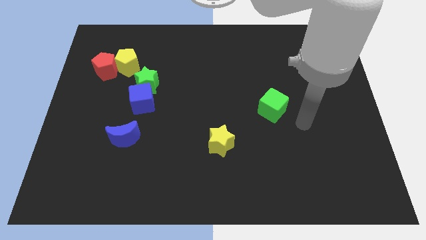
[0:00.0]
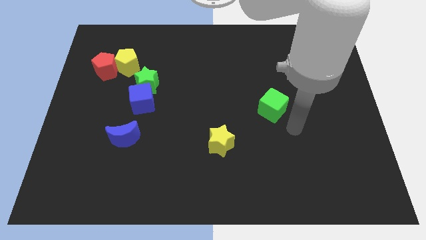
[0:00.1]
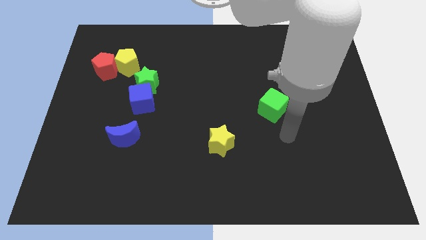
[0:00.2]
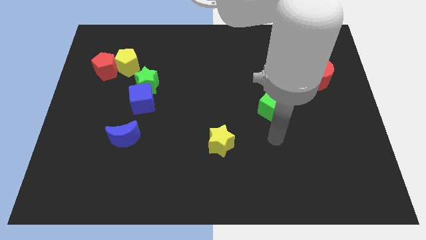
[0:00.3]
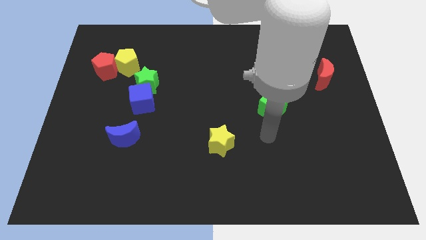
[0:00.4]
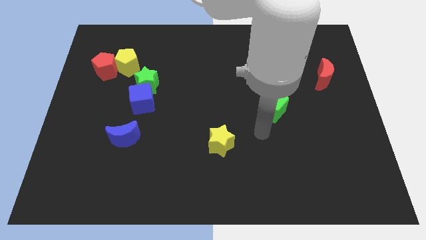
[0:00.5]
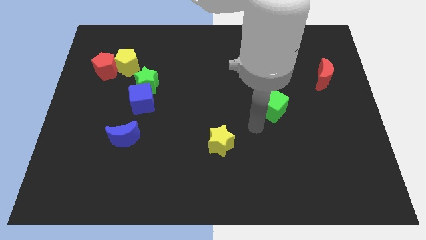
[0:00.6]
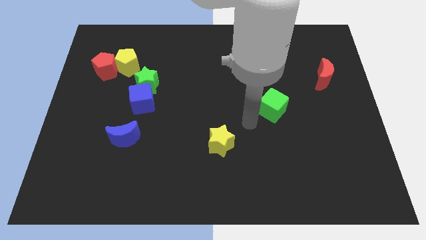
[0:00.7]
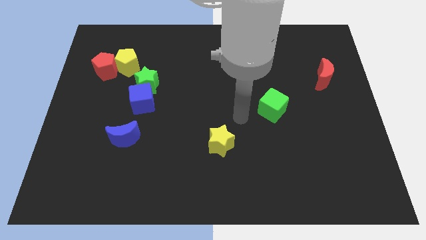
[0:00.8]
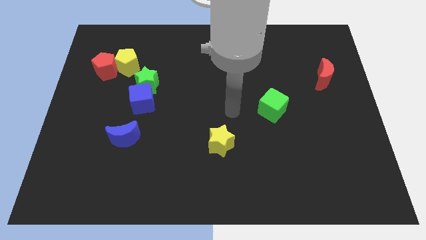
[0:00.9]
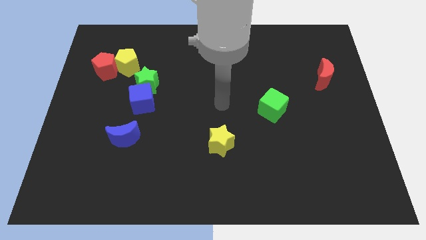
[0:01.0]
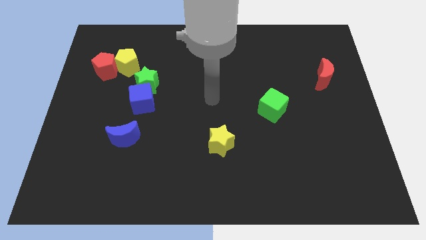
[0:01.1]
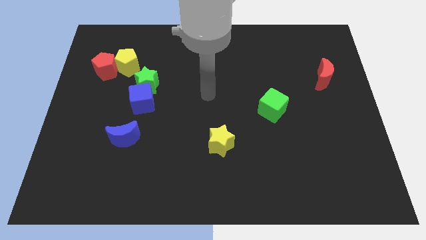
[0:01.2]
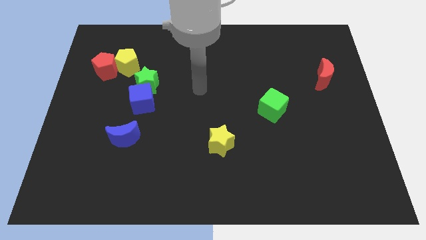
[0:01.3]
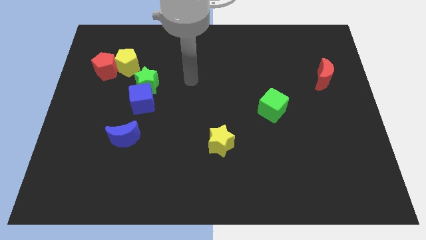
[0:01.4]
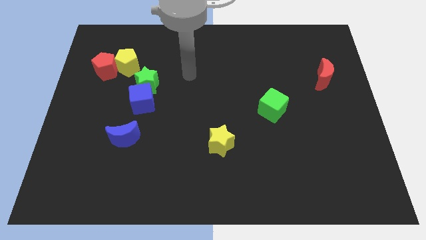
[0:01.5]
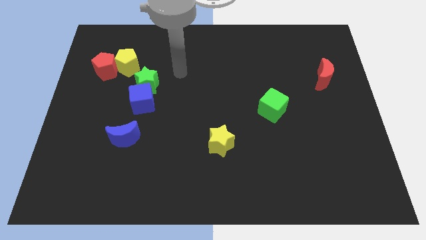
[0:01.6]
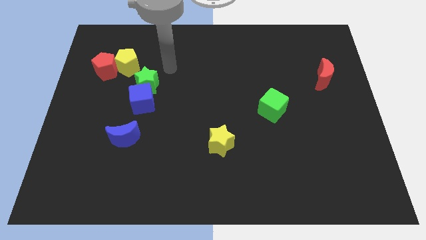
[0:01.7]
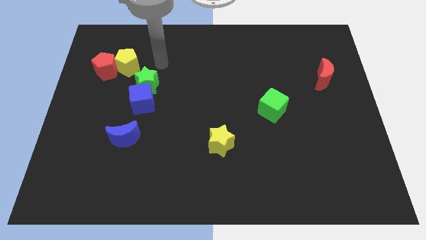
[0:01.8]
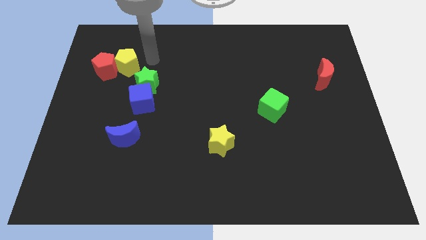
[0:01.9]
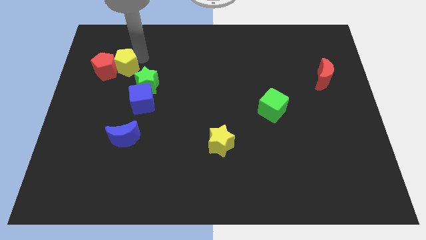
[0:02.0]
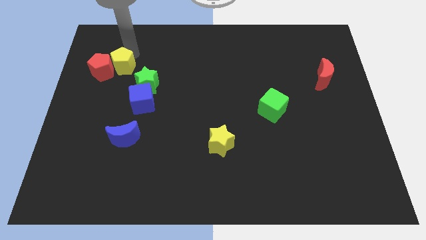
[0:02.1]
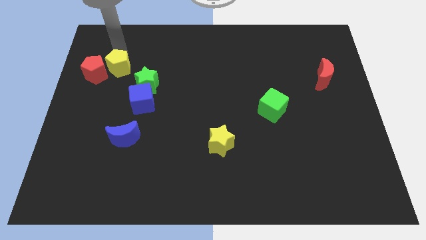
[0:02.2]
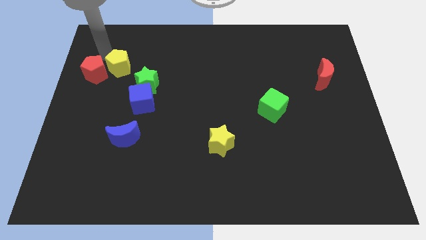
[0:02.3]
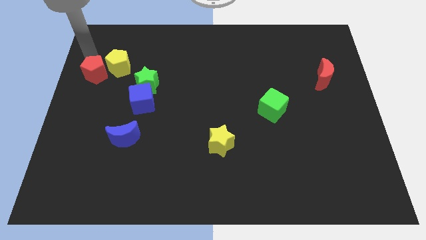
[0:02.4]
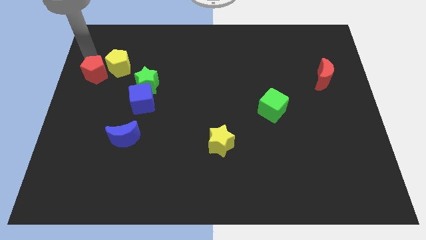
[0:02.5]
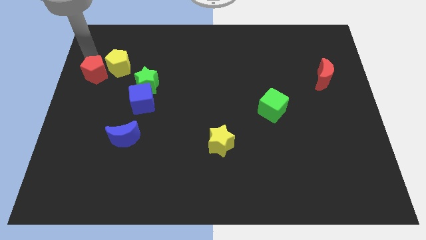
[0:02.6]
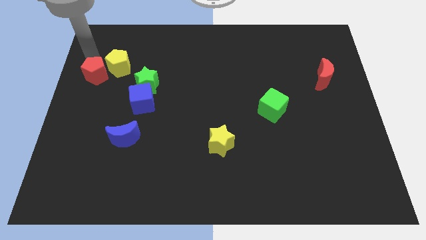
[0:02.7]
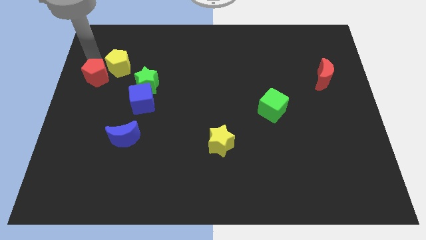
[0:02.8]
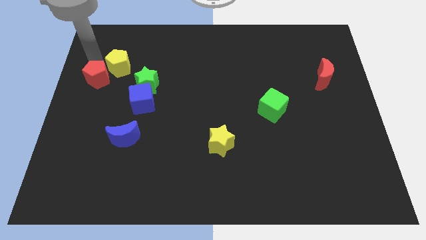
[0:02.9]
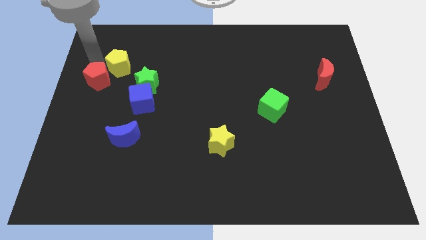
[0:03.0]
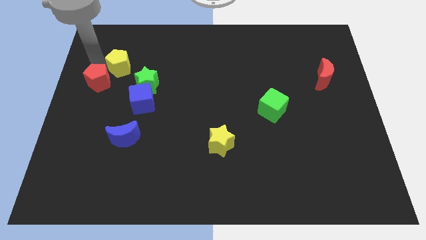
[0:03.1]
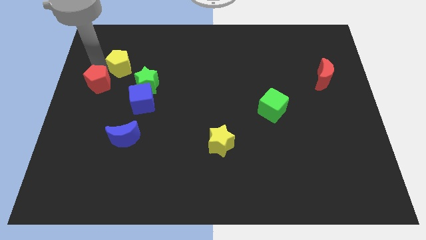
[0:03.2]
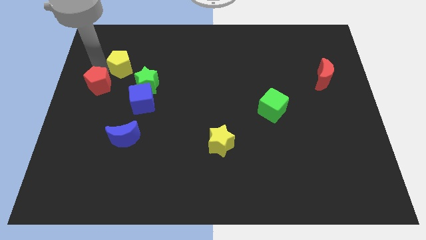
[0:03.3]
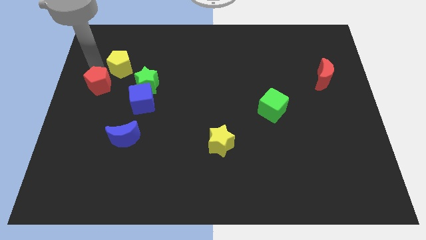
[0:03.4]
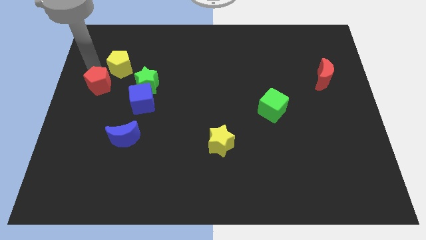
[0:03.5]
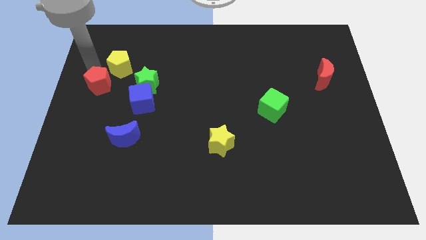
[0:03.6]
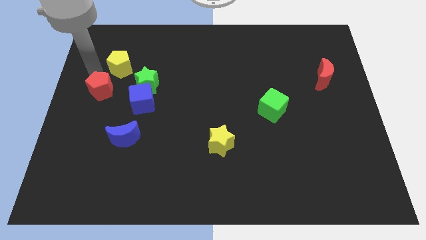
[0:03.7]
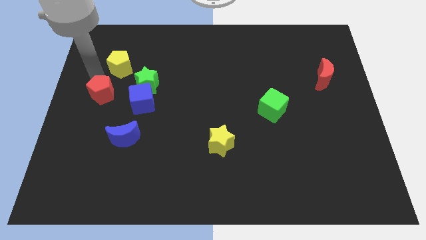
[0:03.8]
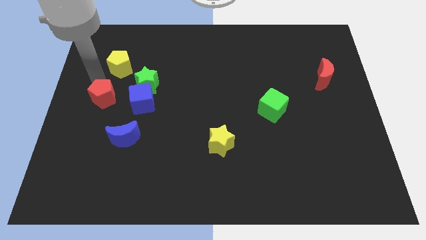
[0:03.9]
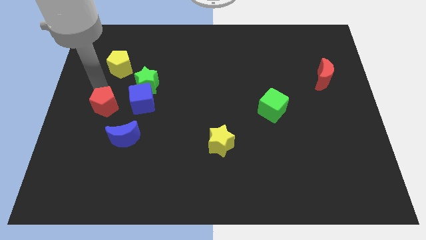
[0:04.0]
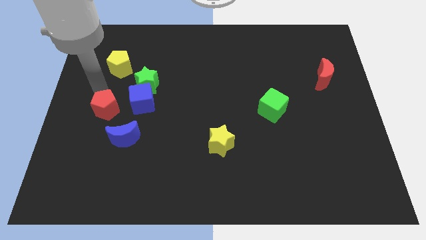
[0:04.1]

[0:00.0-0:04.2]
move the red pentagon to the bottom left of the blue cube

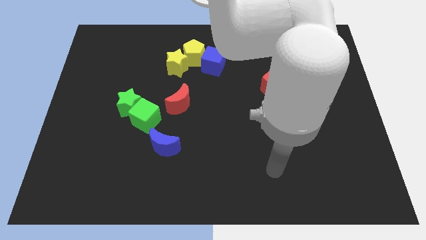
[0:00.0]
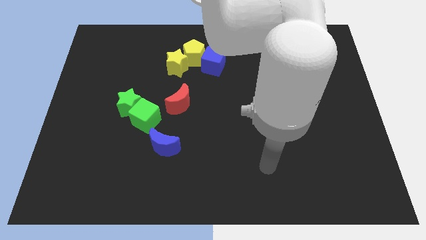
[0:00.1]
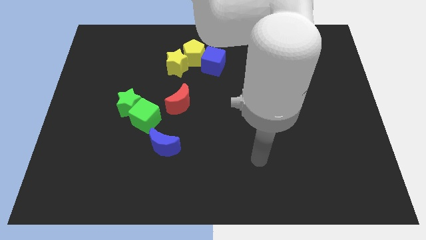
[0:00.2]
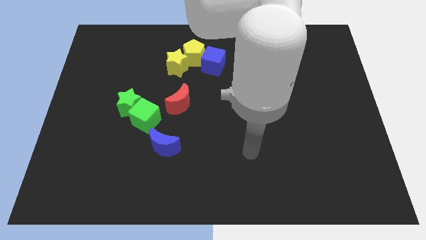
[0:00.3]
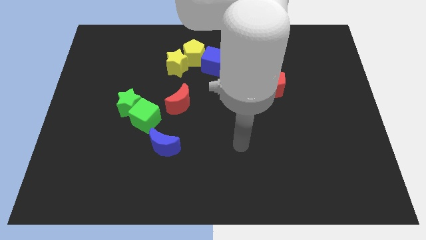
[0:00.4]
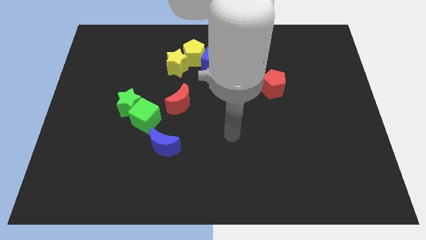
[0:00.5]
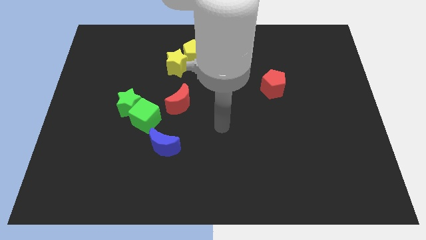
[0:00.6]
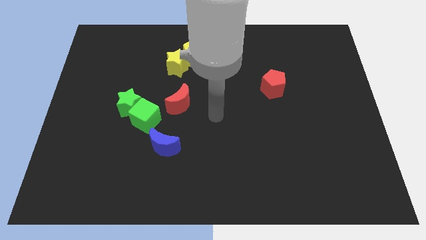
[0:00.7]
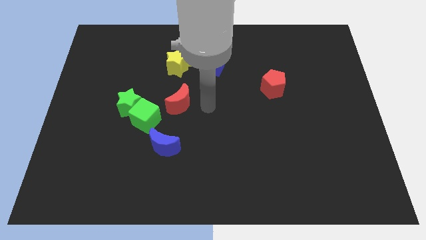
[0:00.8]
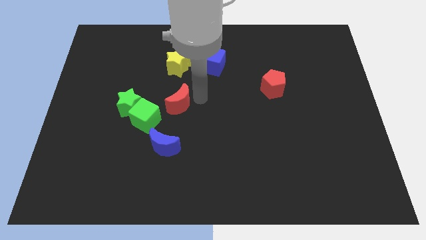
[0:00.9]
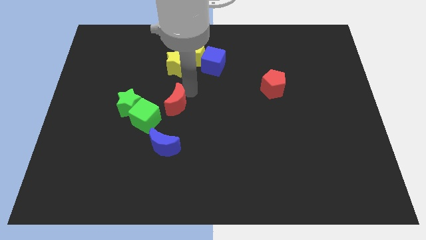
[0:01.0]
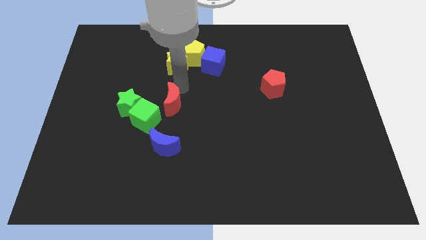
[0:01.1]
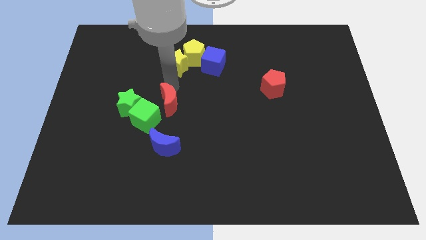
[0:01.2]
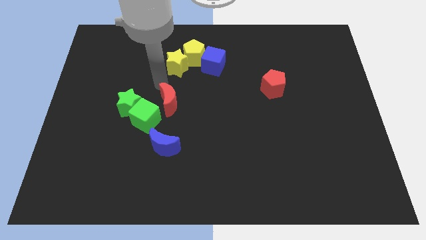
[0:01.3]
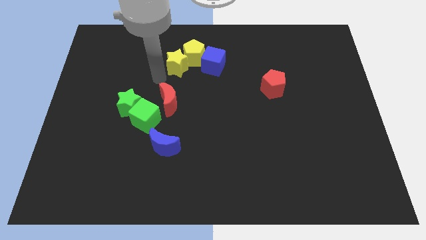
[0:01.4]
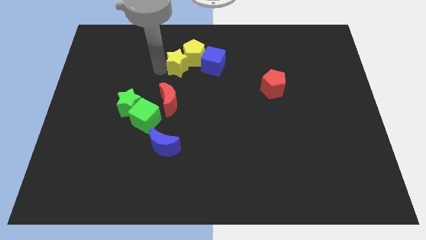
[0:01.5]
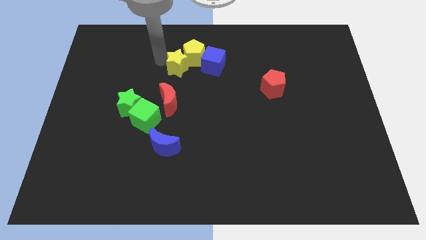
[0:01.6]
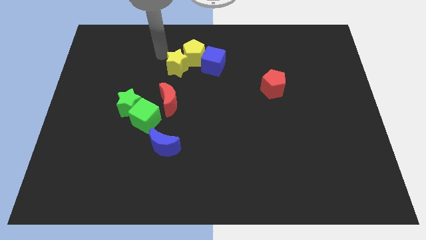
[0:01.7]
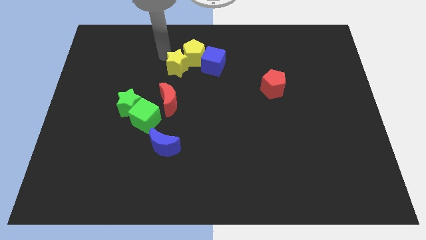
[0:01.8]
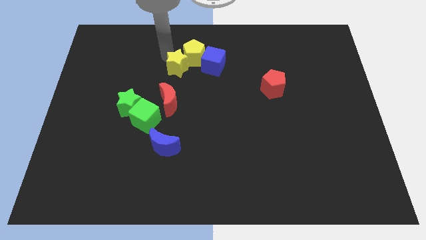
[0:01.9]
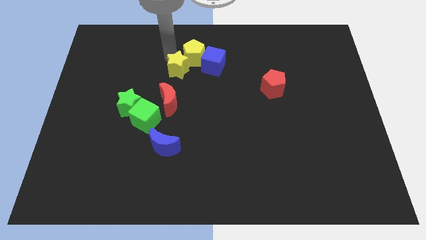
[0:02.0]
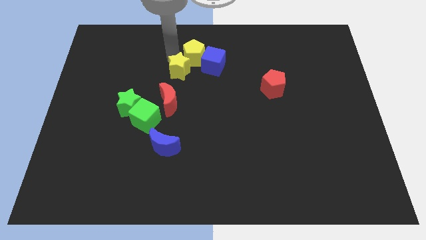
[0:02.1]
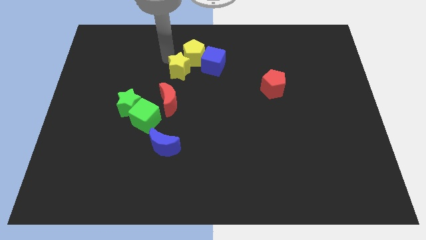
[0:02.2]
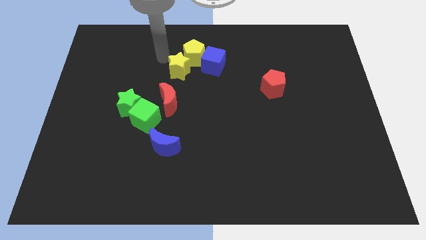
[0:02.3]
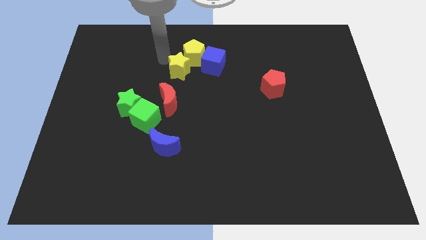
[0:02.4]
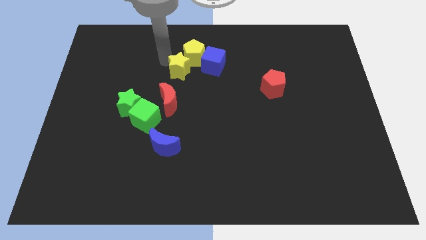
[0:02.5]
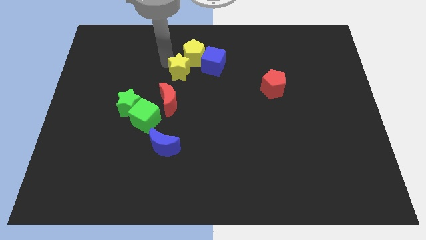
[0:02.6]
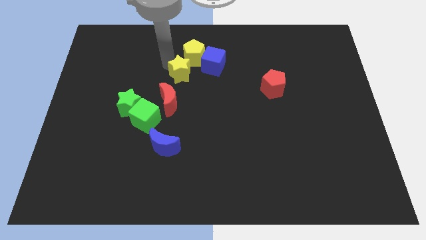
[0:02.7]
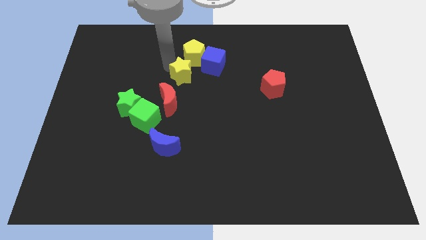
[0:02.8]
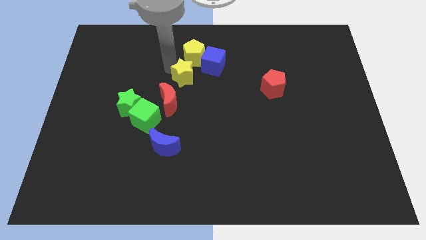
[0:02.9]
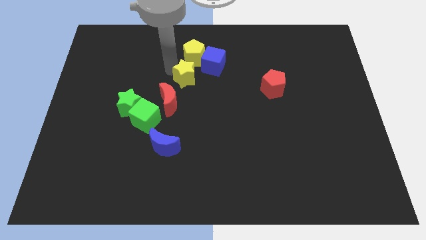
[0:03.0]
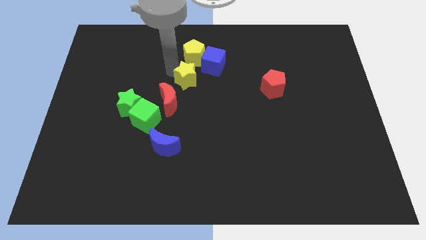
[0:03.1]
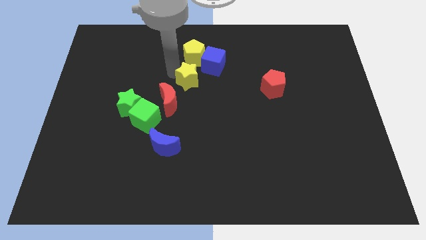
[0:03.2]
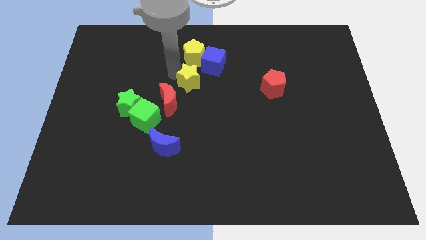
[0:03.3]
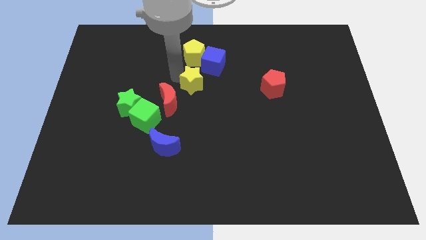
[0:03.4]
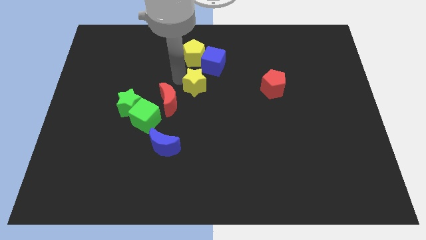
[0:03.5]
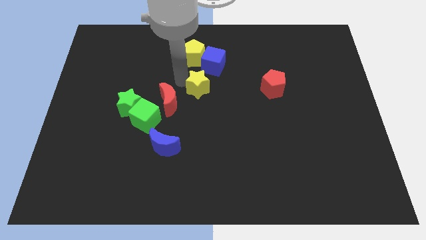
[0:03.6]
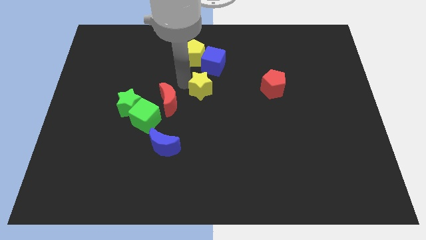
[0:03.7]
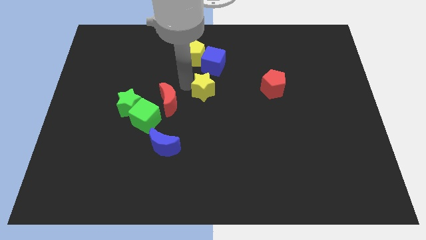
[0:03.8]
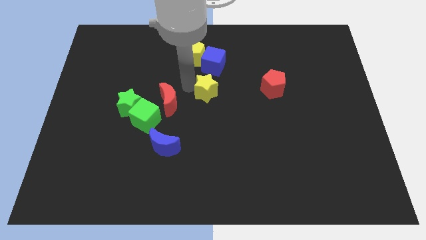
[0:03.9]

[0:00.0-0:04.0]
put the yellow star to the left side of the red pentagon
